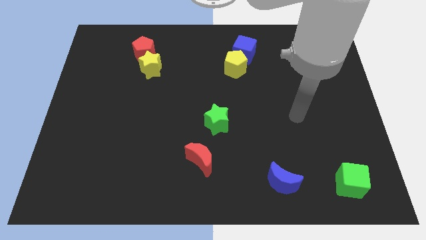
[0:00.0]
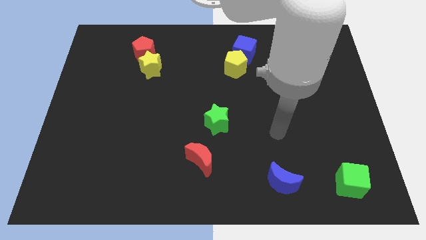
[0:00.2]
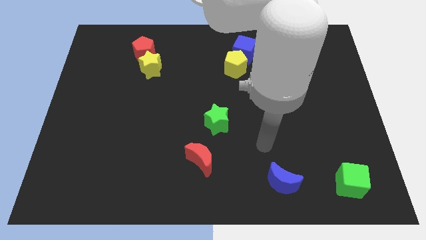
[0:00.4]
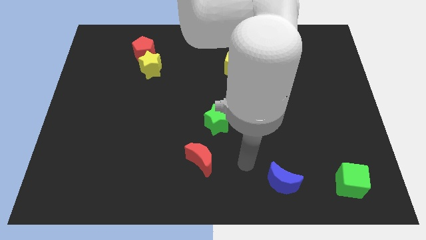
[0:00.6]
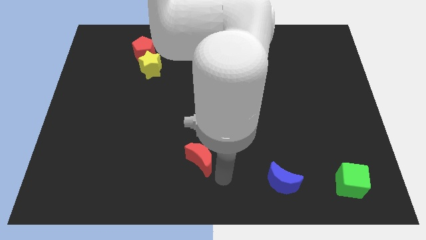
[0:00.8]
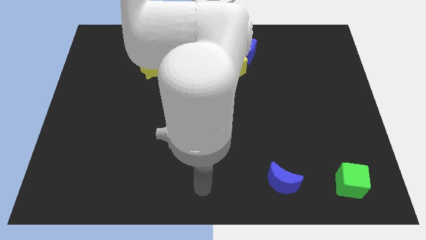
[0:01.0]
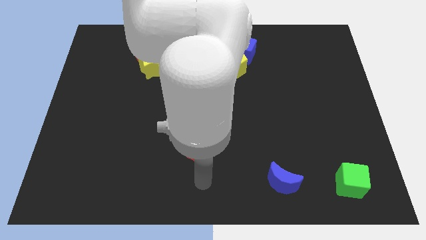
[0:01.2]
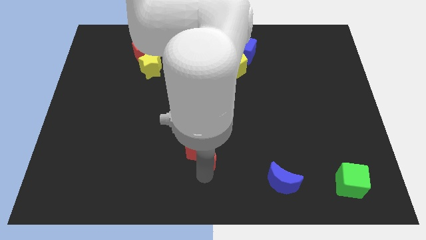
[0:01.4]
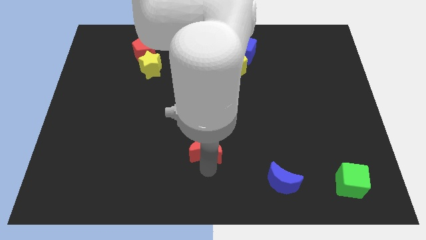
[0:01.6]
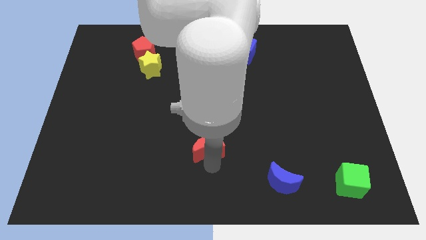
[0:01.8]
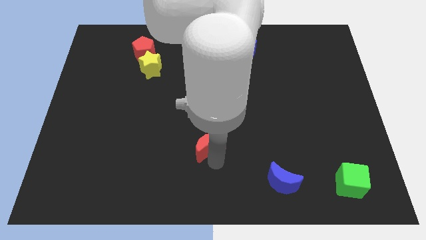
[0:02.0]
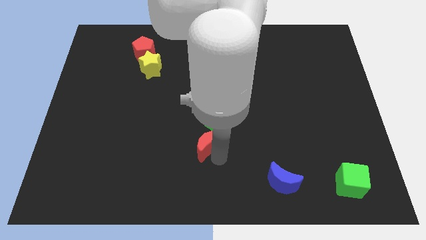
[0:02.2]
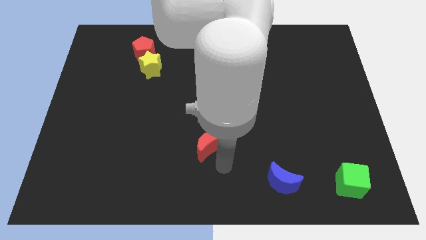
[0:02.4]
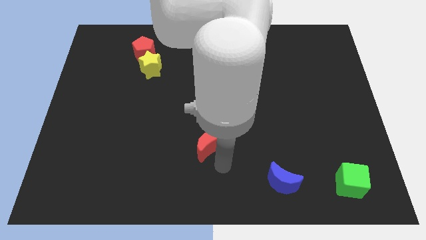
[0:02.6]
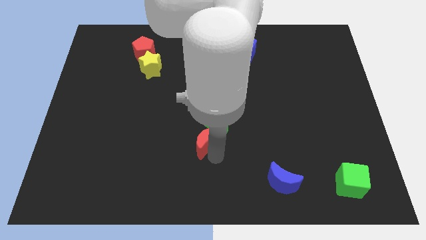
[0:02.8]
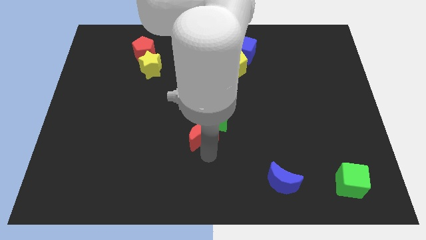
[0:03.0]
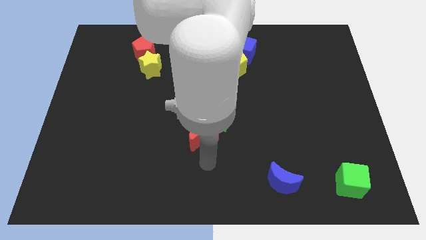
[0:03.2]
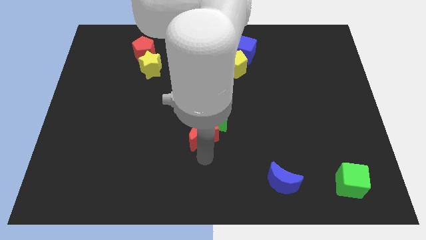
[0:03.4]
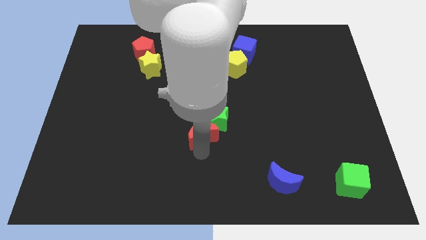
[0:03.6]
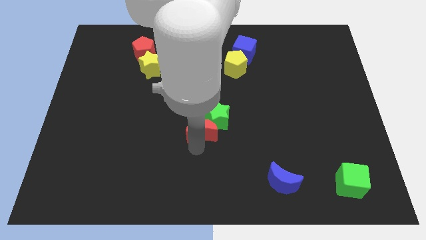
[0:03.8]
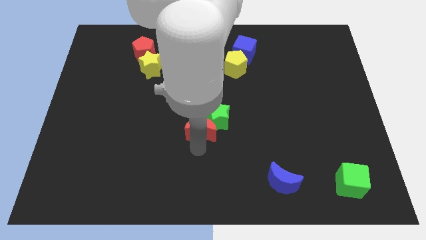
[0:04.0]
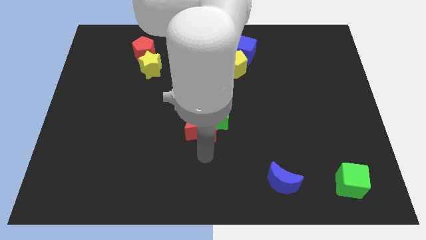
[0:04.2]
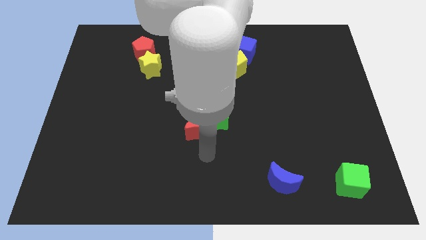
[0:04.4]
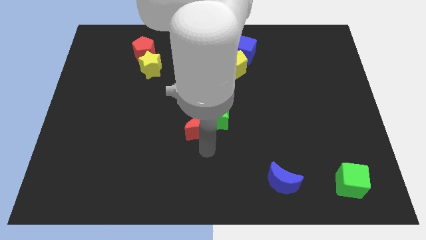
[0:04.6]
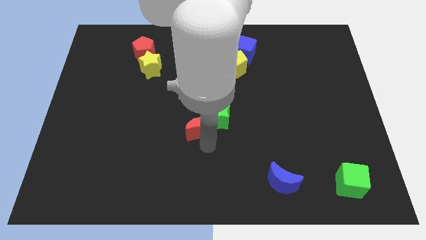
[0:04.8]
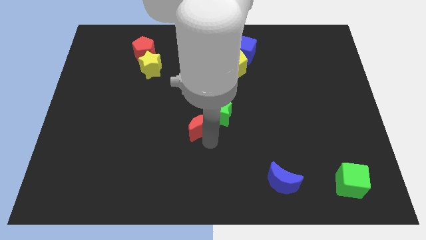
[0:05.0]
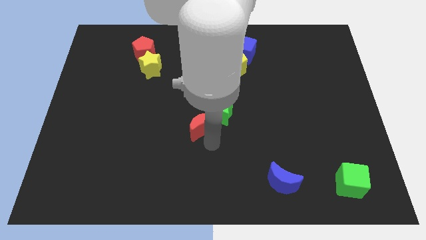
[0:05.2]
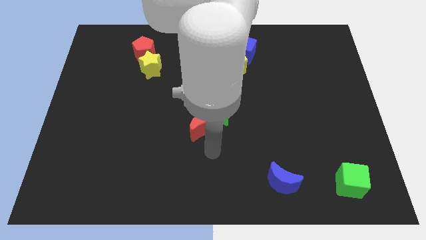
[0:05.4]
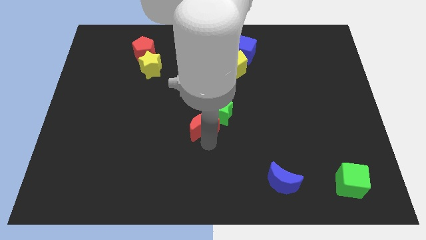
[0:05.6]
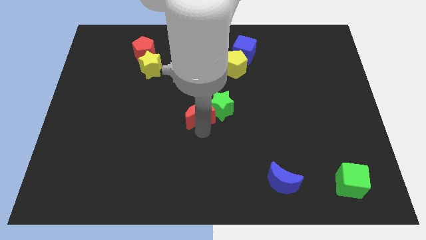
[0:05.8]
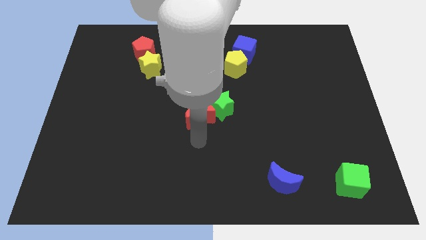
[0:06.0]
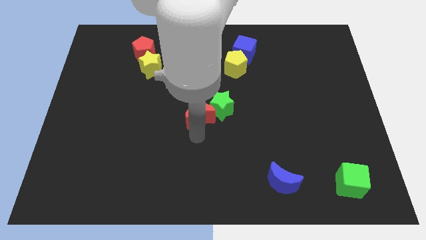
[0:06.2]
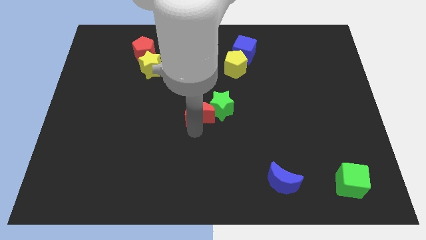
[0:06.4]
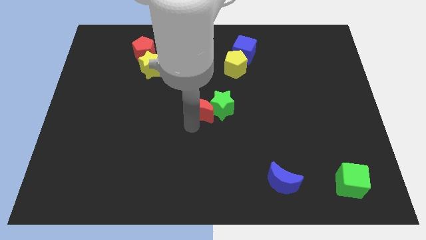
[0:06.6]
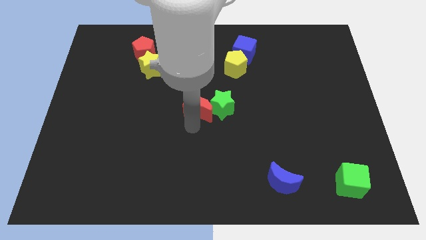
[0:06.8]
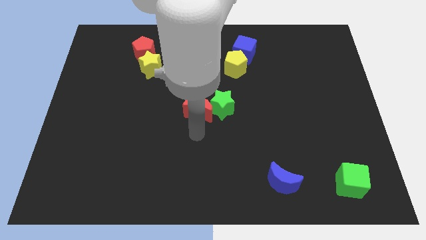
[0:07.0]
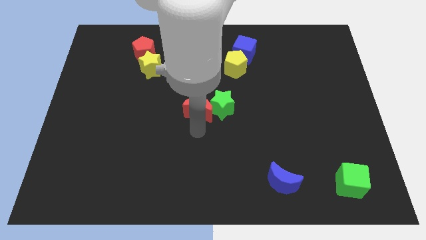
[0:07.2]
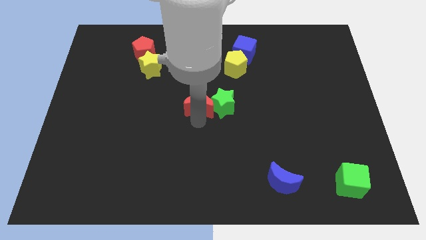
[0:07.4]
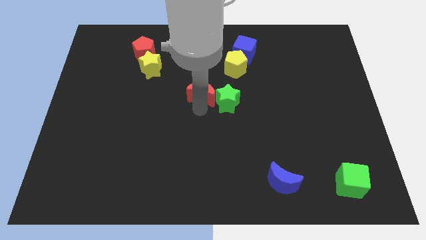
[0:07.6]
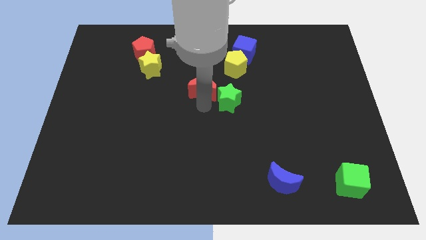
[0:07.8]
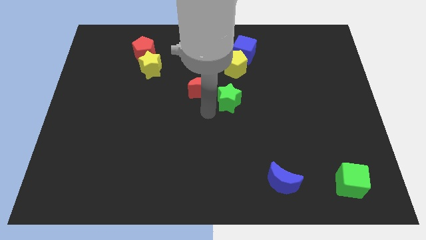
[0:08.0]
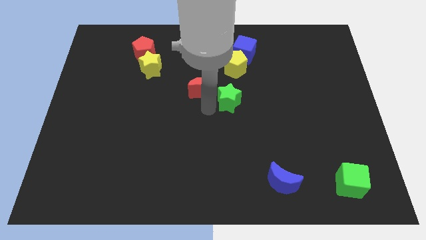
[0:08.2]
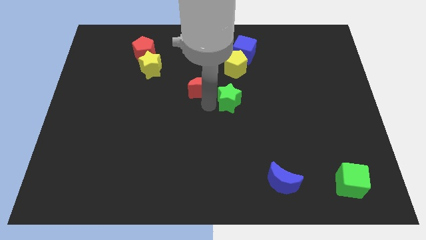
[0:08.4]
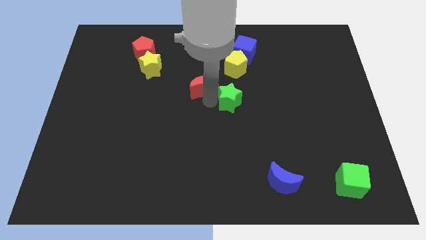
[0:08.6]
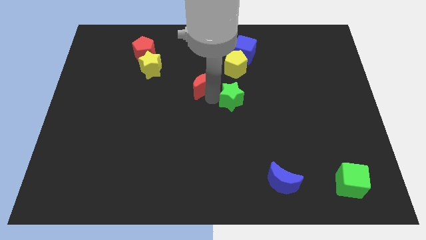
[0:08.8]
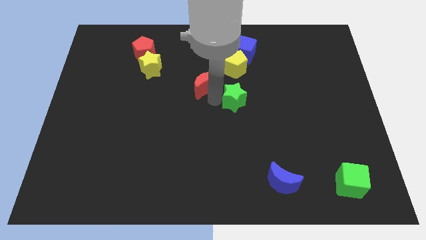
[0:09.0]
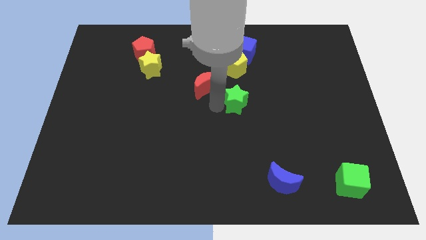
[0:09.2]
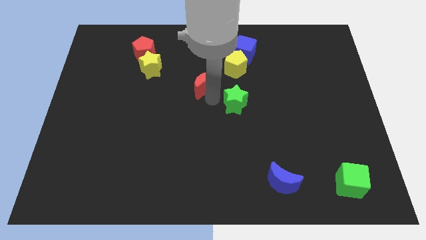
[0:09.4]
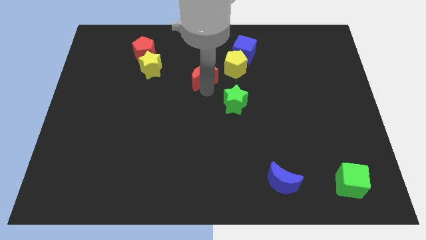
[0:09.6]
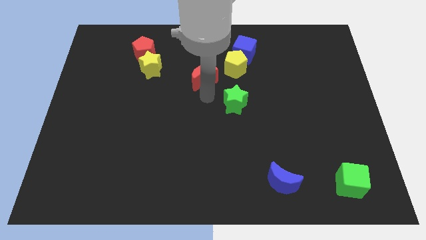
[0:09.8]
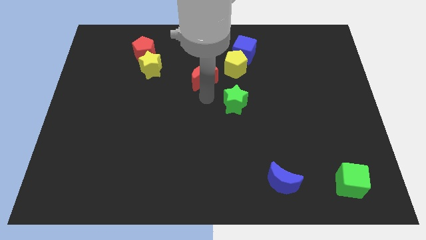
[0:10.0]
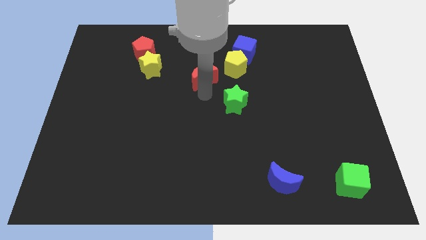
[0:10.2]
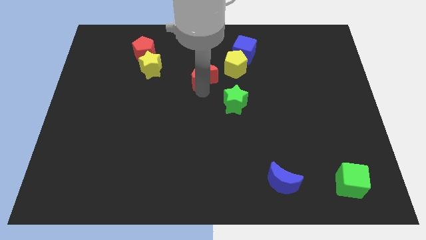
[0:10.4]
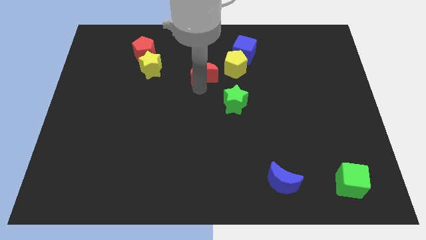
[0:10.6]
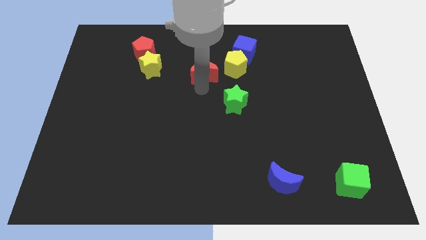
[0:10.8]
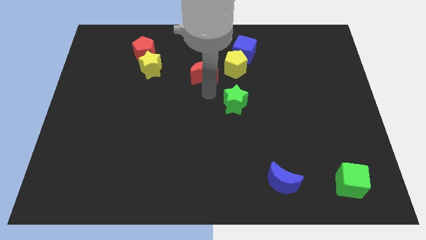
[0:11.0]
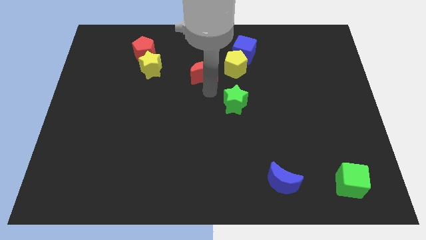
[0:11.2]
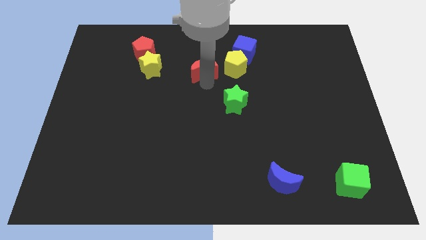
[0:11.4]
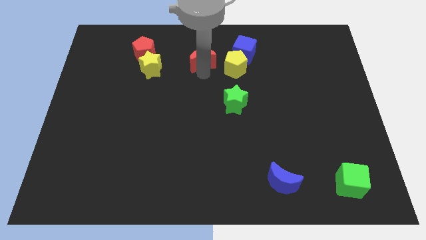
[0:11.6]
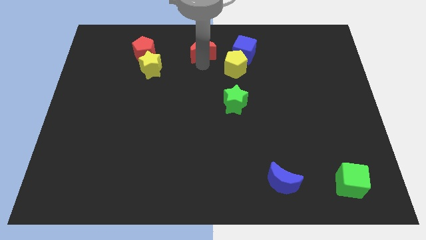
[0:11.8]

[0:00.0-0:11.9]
push the red moon to the towards your base

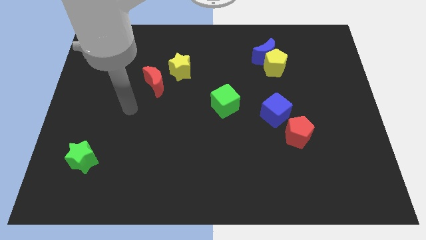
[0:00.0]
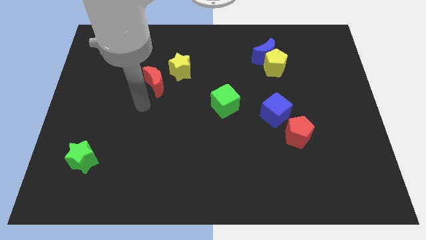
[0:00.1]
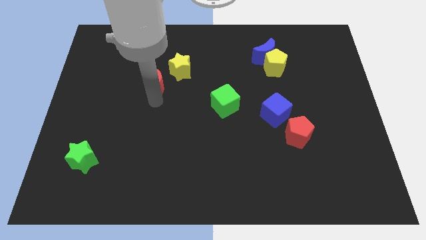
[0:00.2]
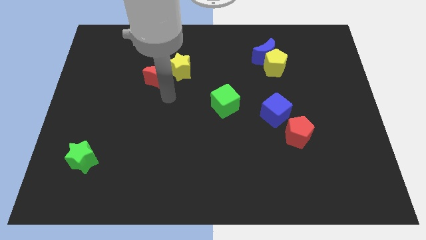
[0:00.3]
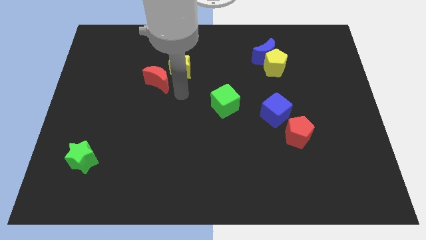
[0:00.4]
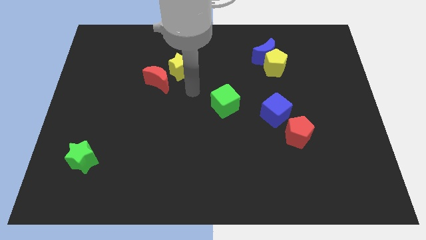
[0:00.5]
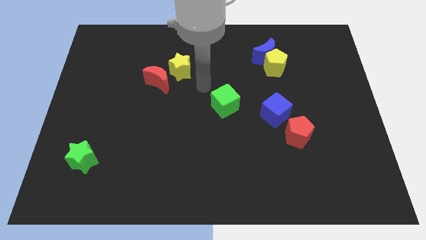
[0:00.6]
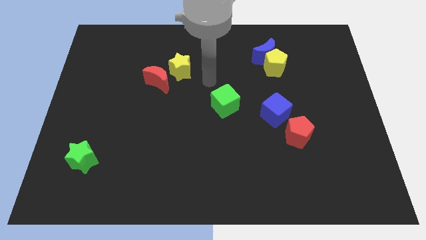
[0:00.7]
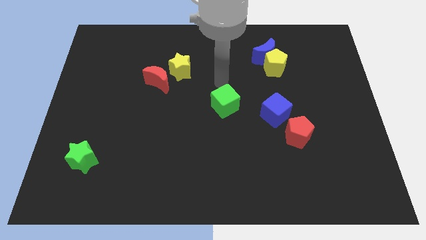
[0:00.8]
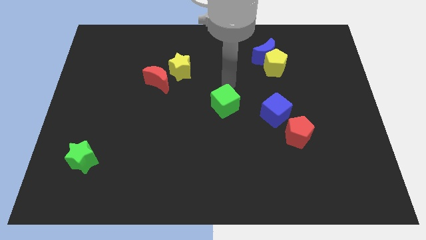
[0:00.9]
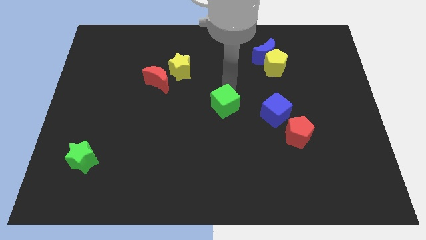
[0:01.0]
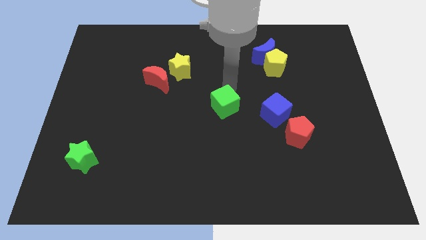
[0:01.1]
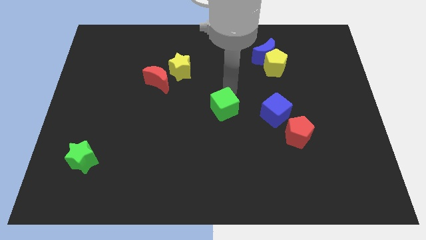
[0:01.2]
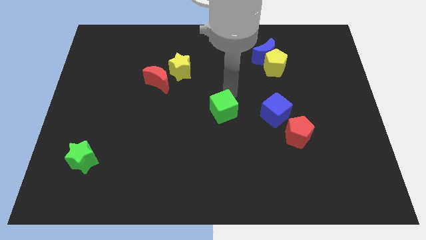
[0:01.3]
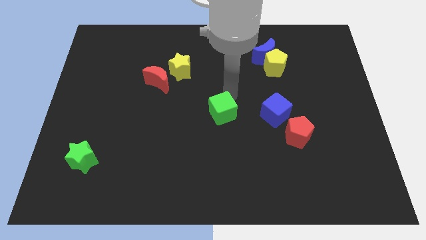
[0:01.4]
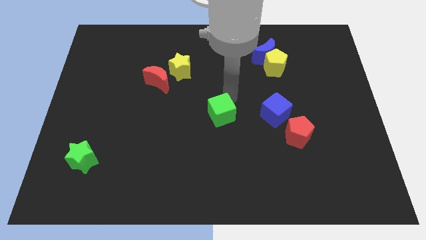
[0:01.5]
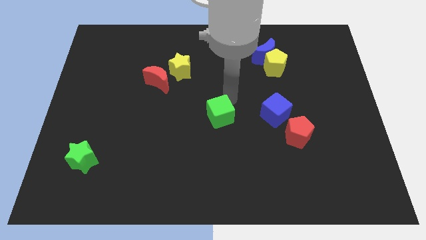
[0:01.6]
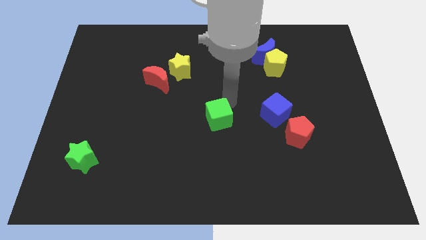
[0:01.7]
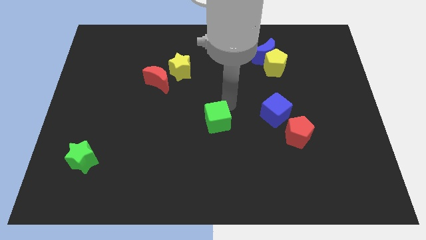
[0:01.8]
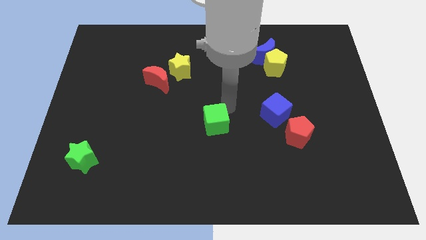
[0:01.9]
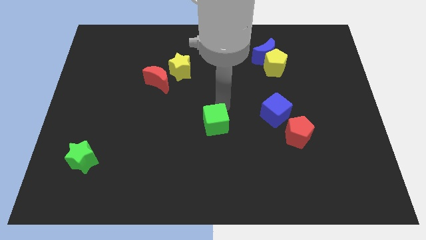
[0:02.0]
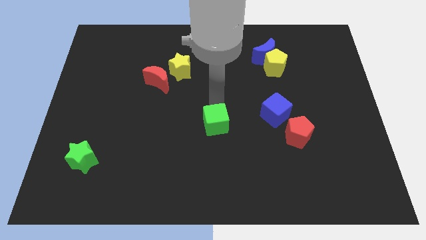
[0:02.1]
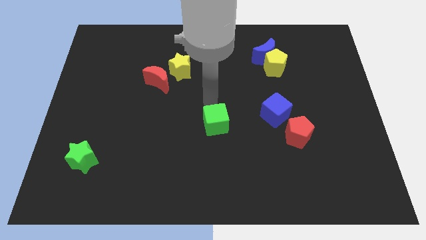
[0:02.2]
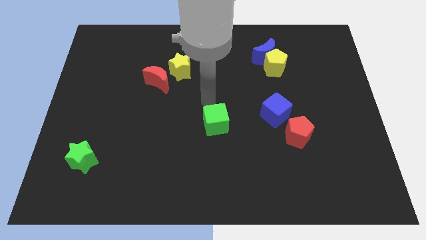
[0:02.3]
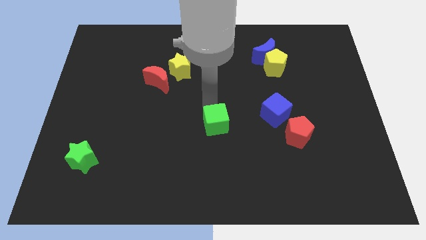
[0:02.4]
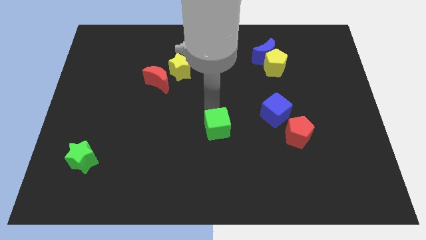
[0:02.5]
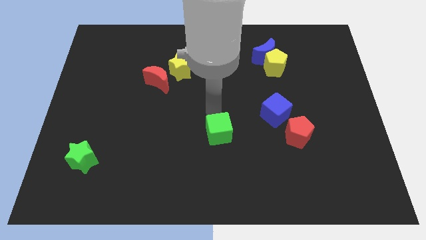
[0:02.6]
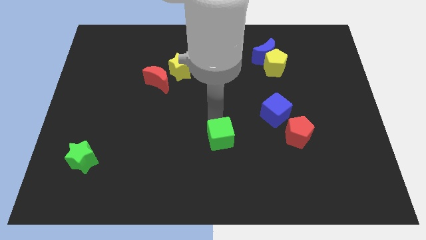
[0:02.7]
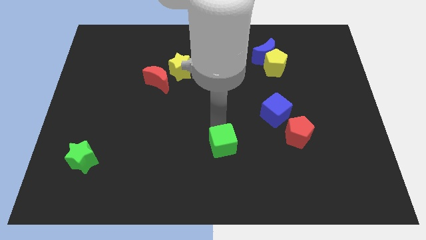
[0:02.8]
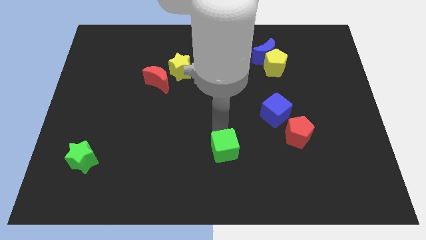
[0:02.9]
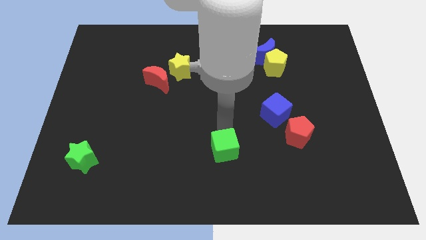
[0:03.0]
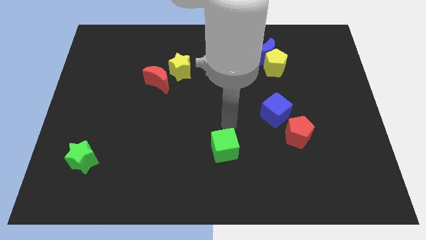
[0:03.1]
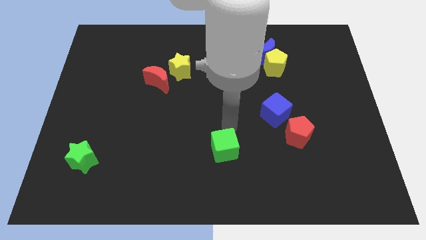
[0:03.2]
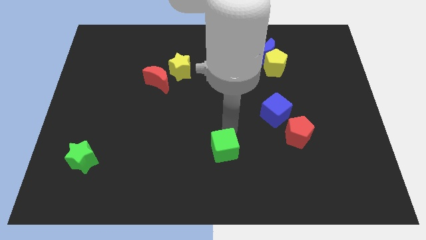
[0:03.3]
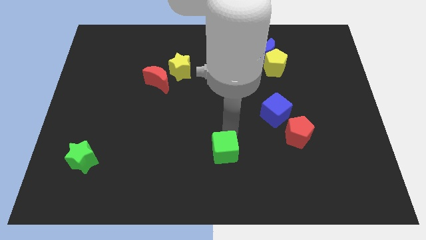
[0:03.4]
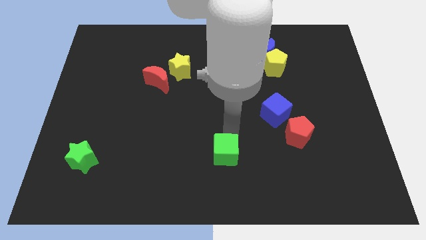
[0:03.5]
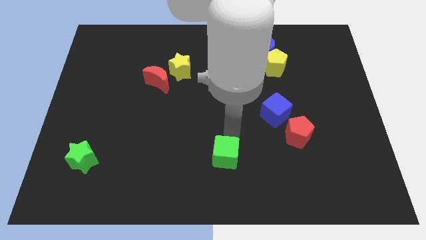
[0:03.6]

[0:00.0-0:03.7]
slide the green cube to the bottom
